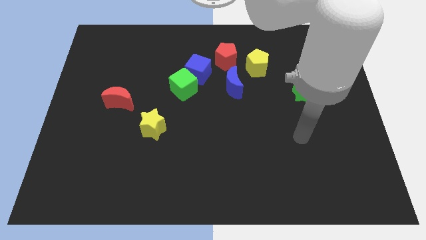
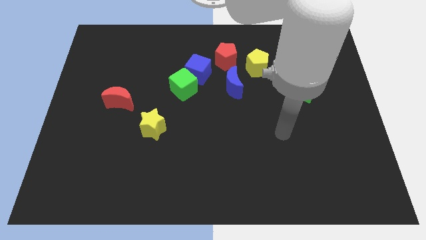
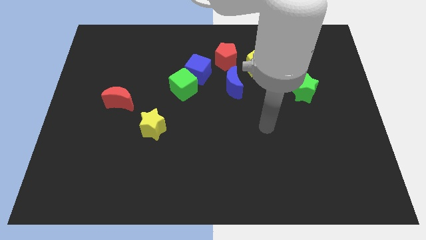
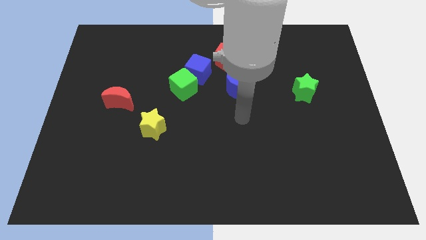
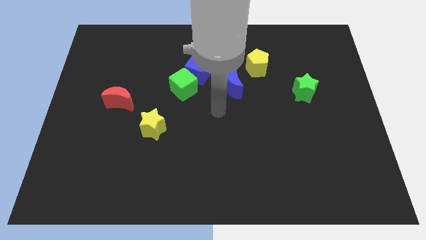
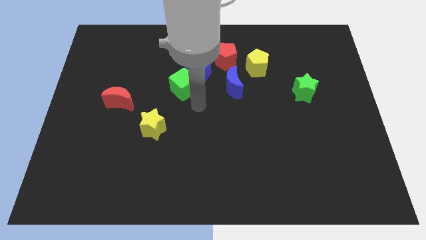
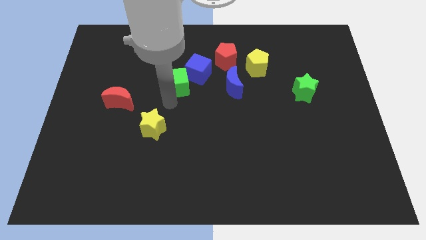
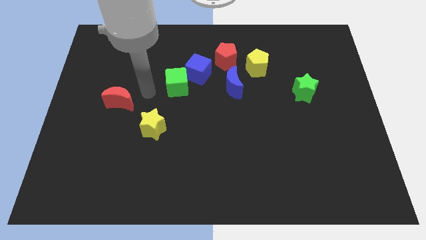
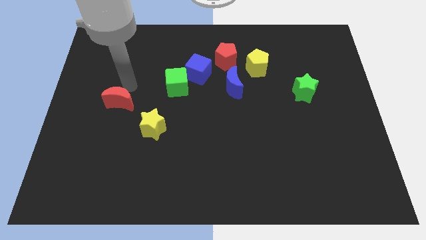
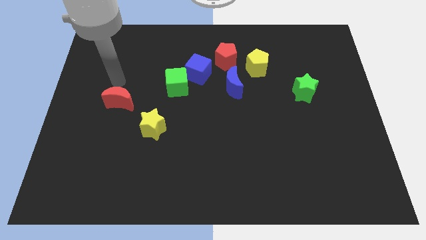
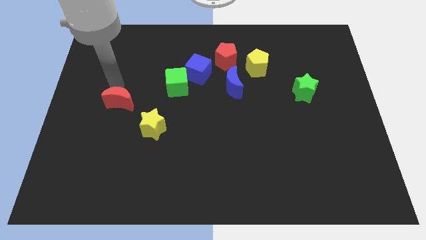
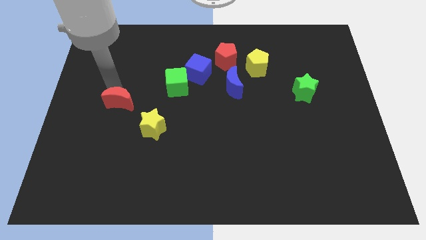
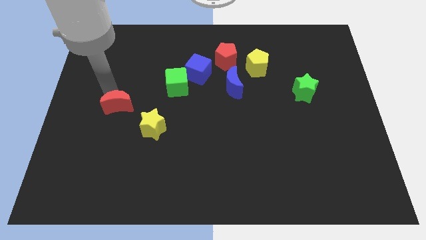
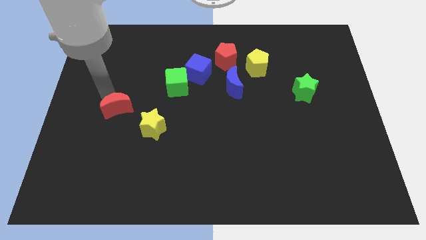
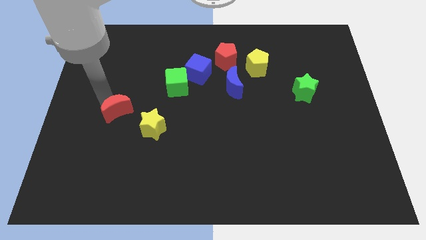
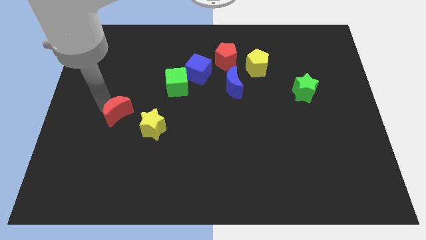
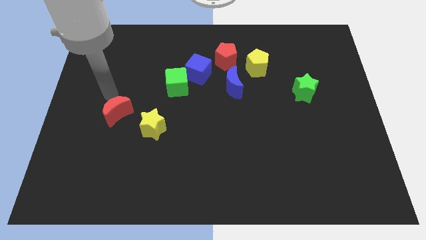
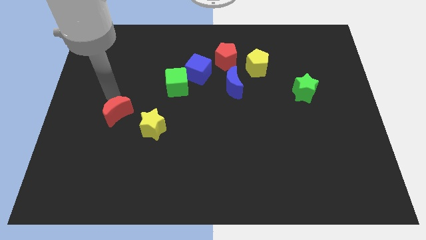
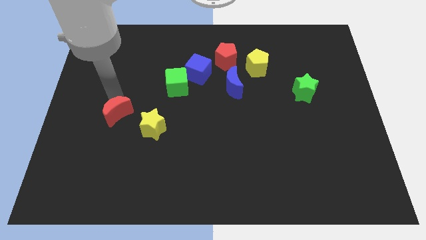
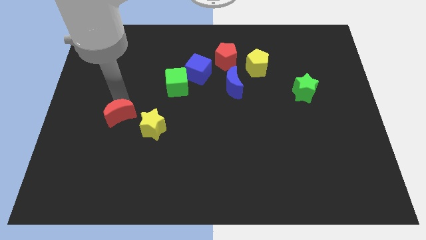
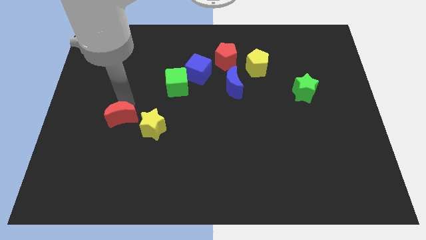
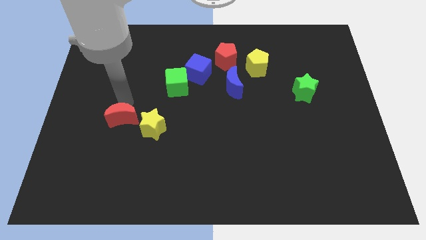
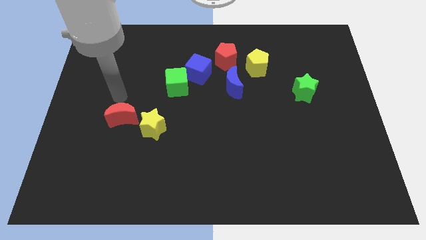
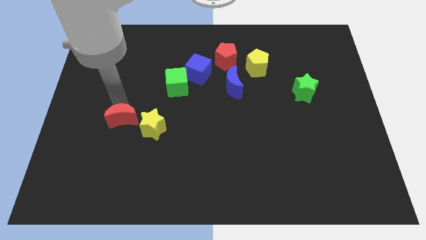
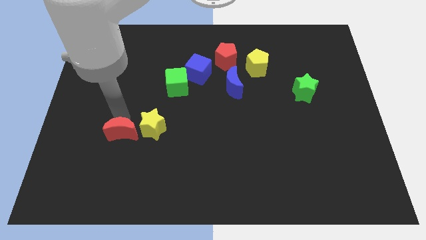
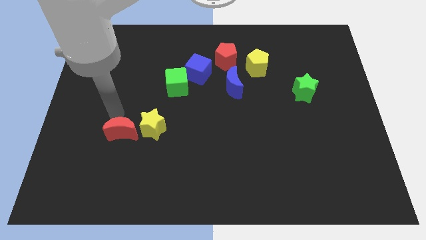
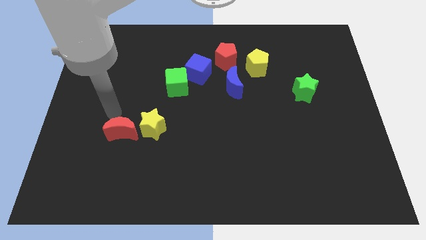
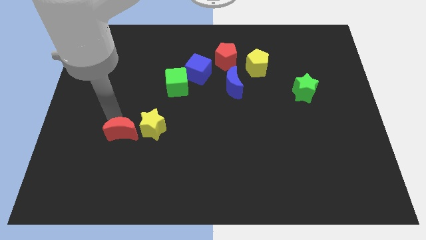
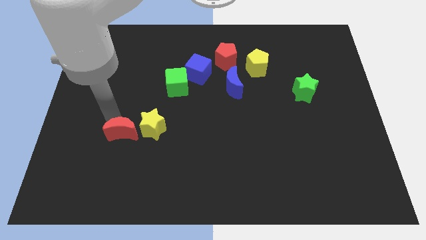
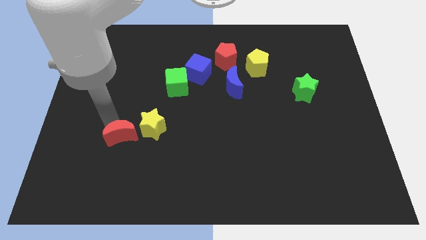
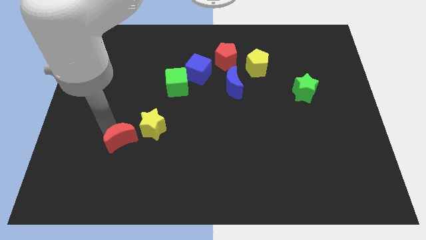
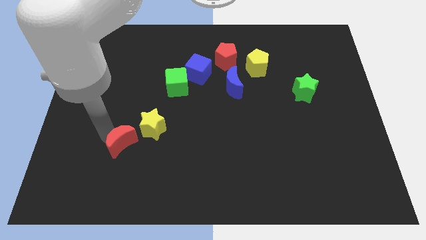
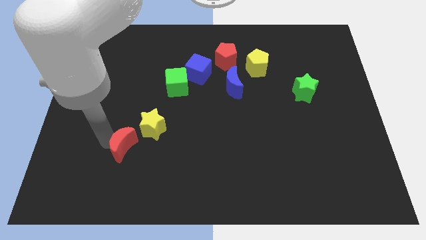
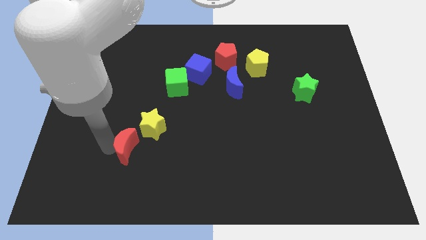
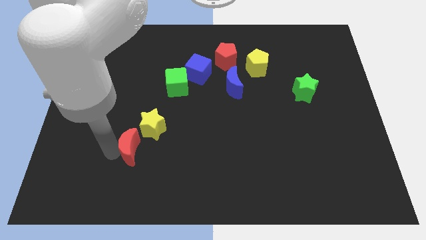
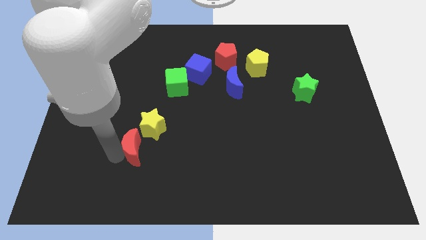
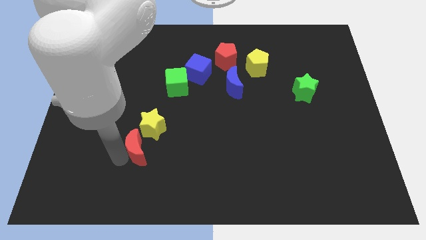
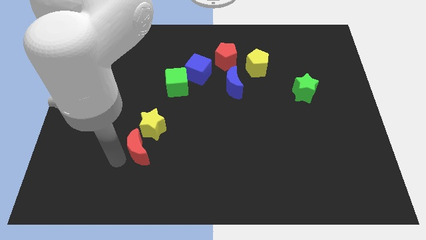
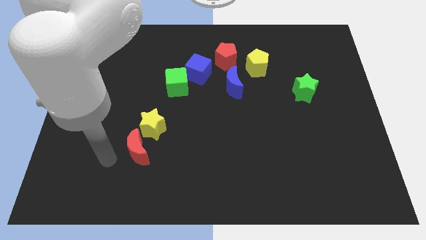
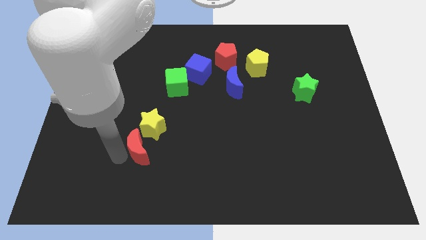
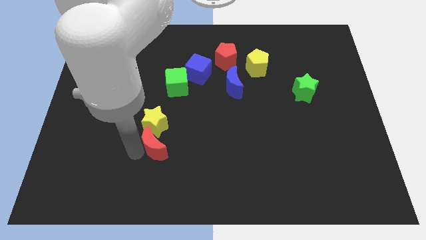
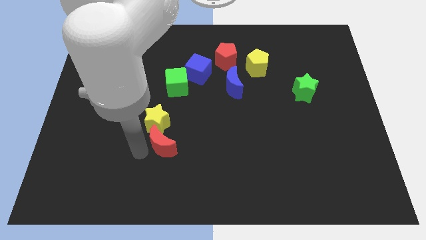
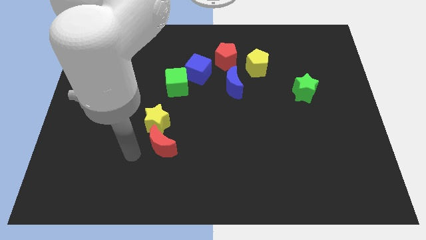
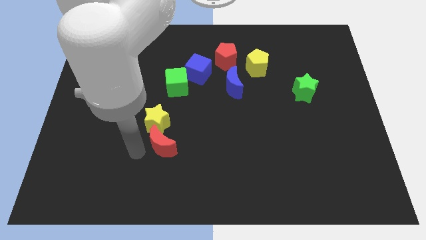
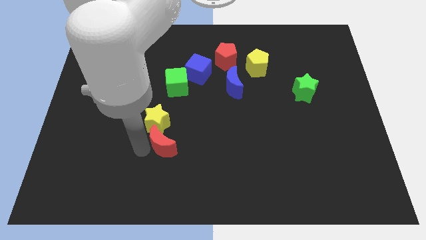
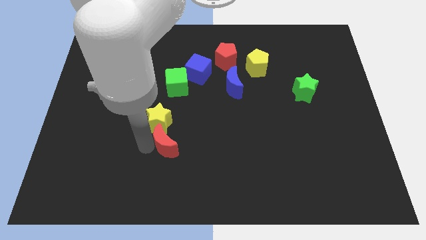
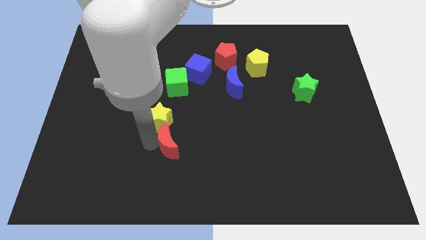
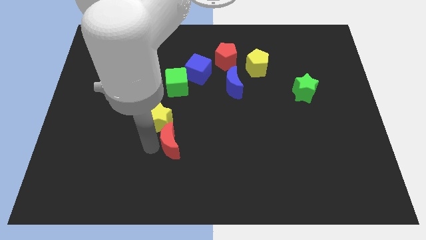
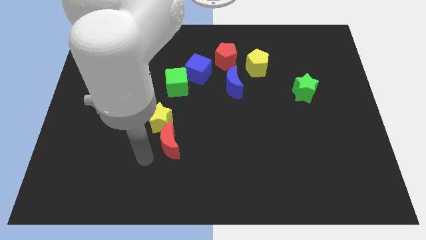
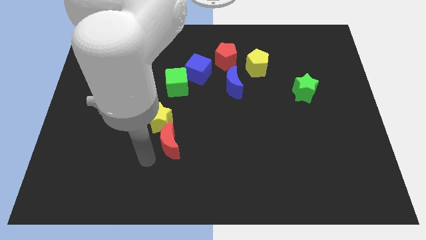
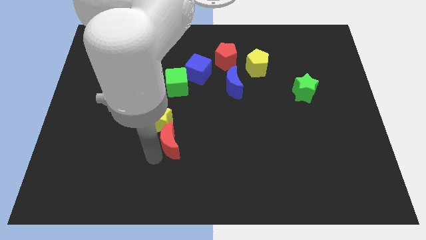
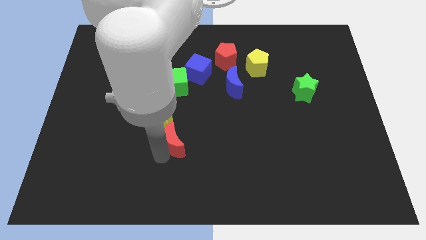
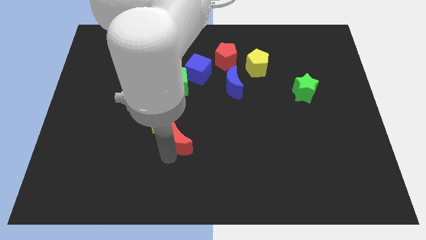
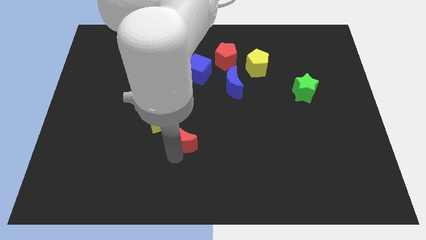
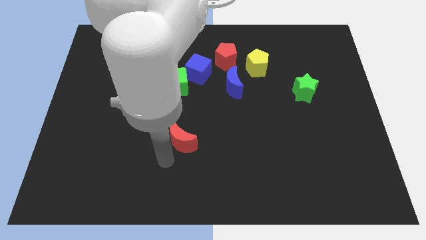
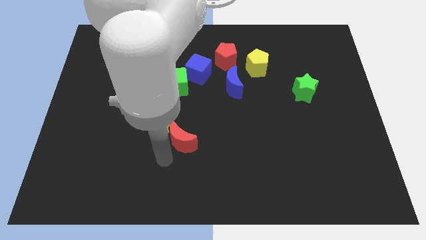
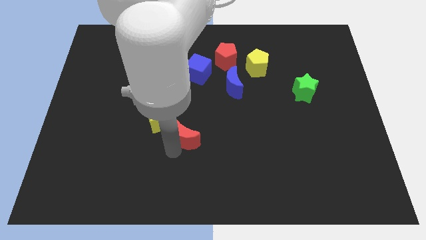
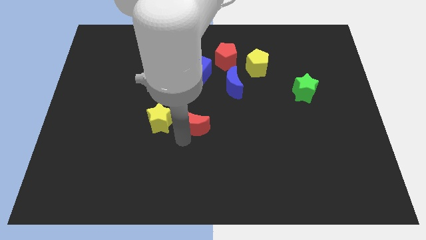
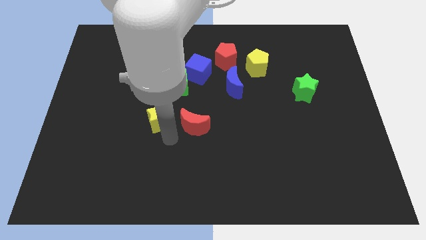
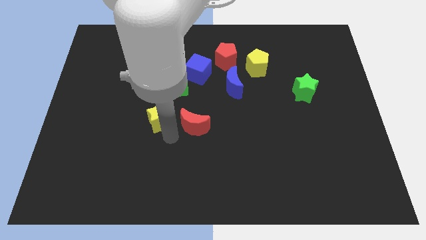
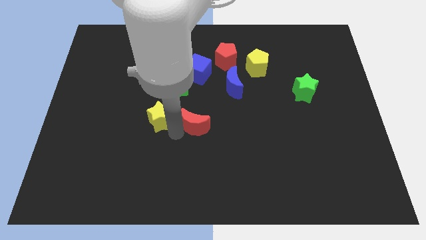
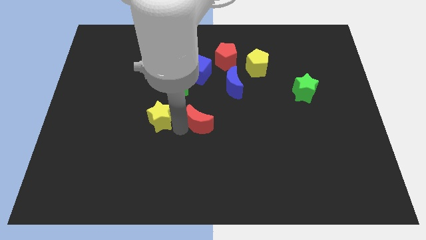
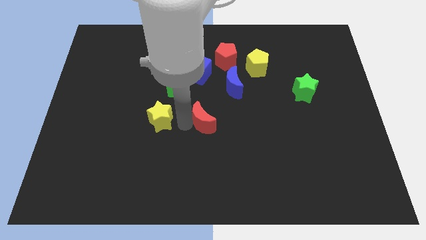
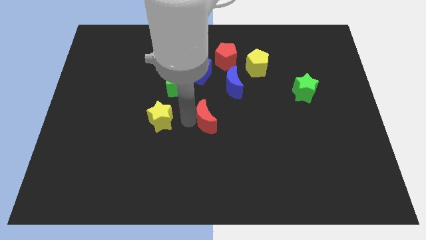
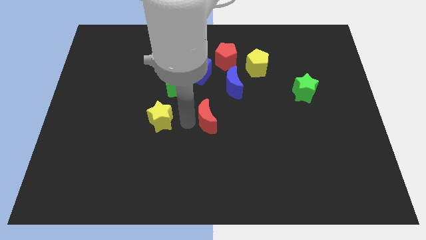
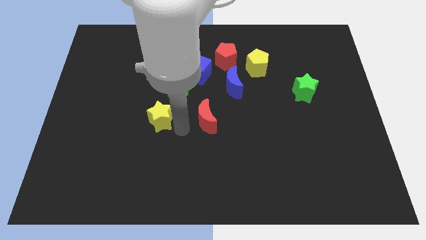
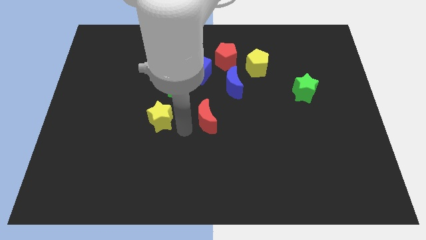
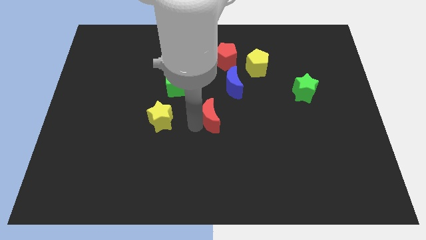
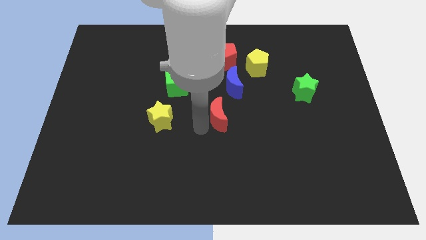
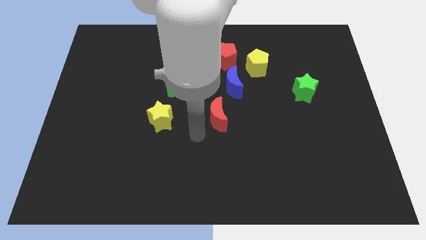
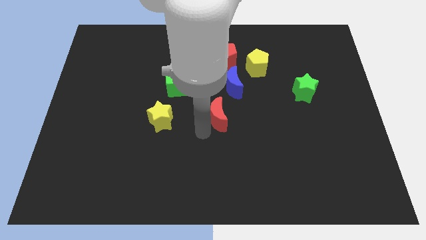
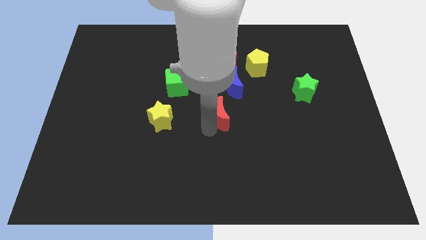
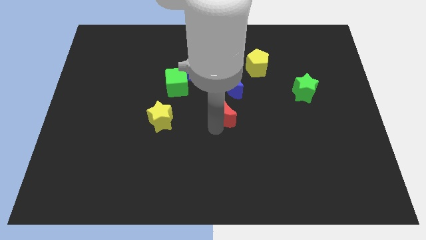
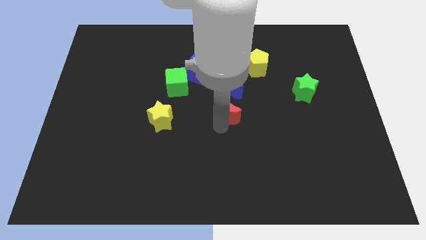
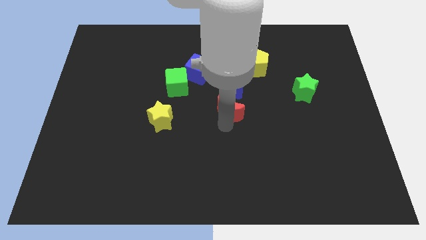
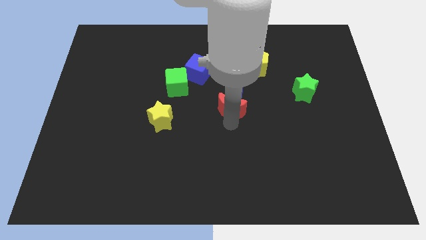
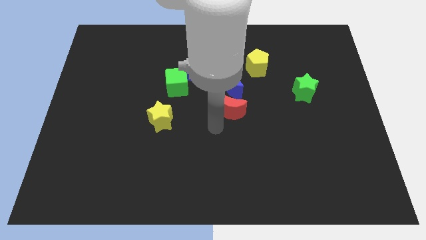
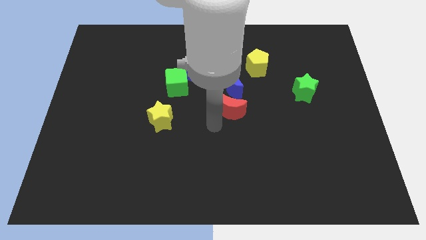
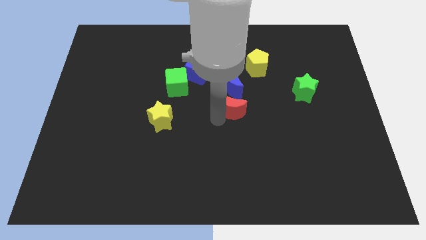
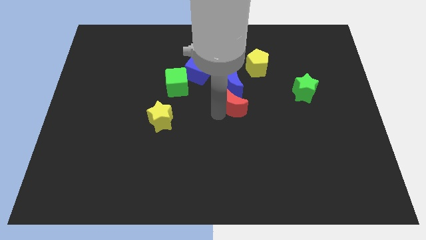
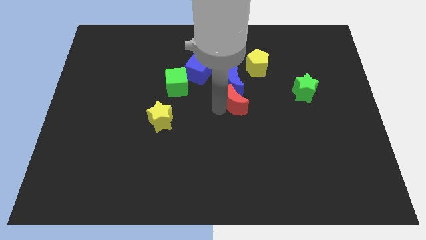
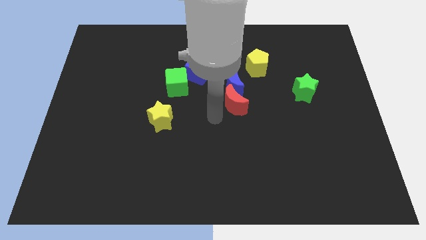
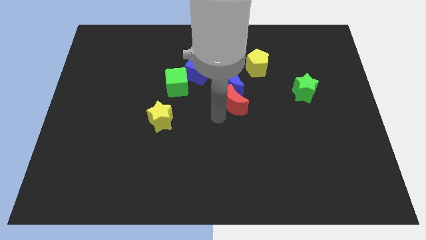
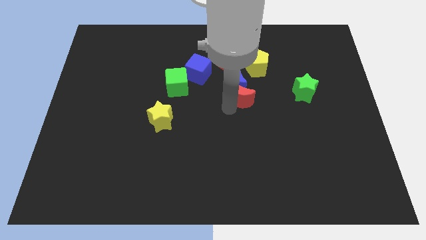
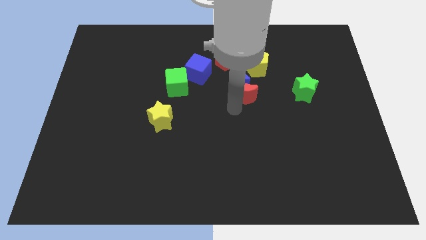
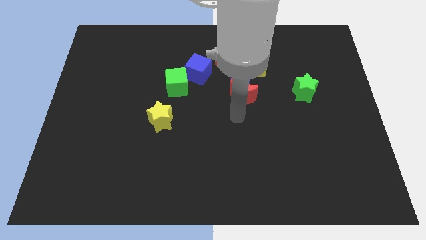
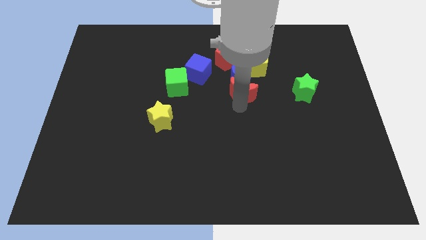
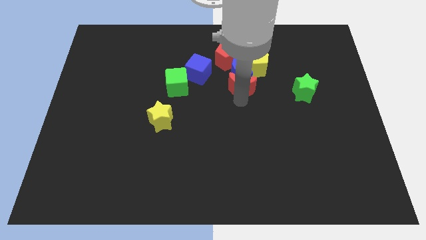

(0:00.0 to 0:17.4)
move the red moon to the bottom right side of the red pentagon
